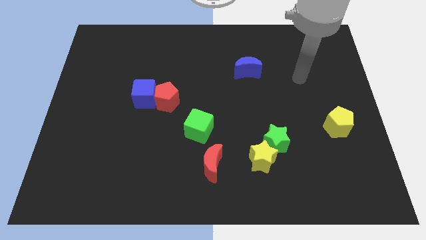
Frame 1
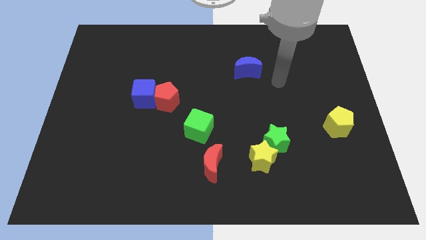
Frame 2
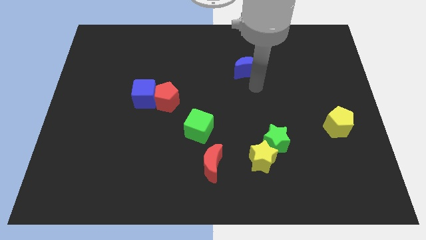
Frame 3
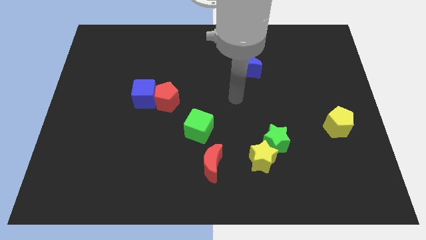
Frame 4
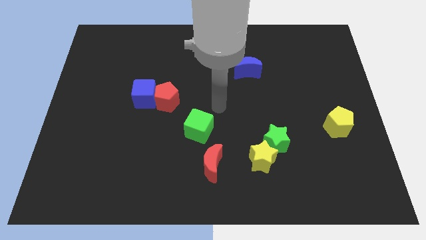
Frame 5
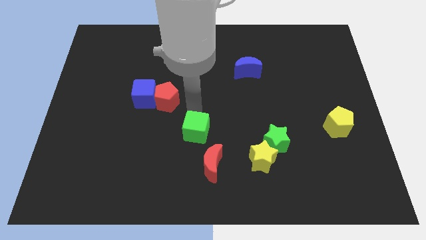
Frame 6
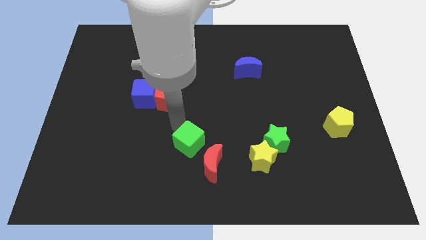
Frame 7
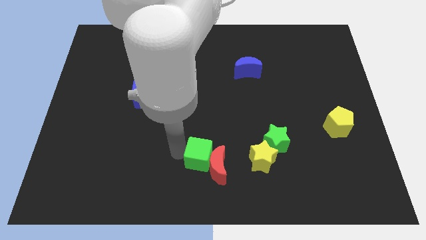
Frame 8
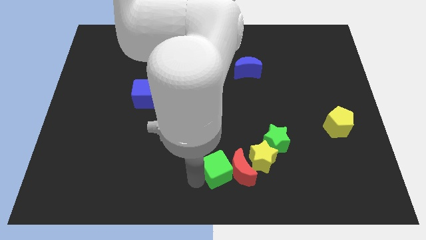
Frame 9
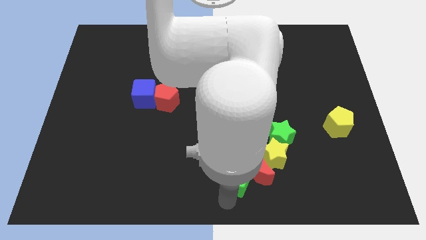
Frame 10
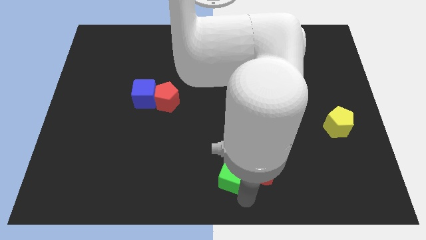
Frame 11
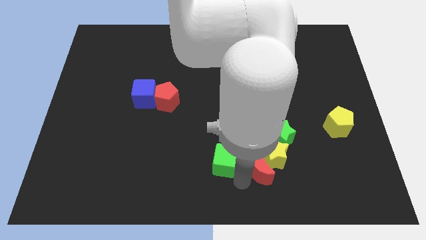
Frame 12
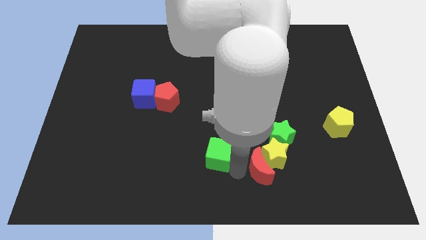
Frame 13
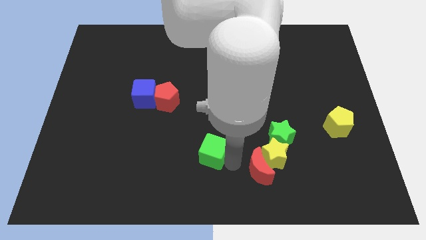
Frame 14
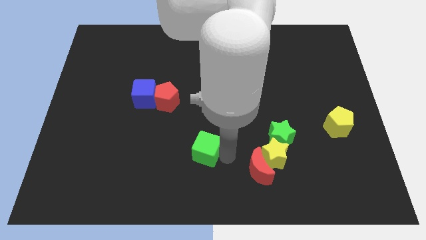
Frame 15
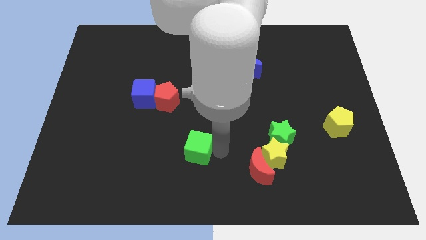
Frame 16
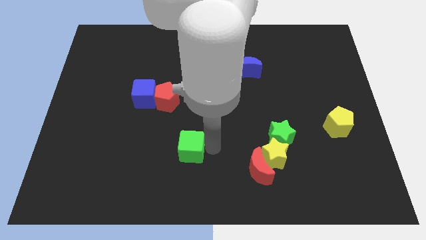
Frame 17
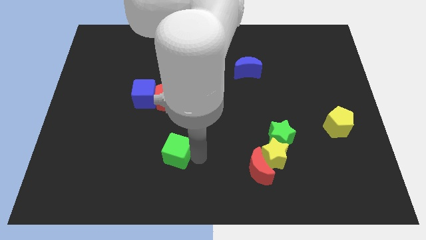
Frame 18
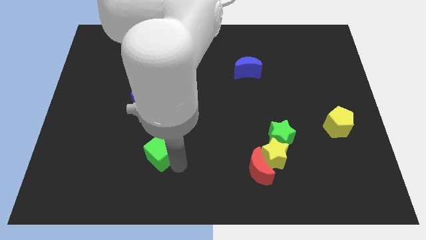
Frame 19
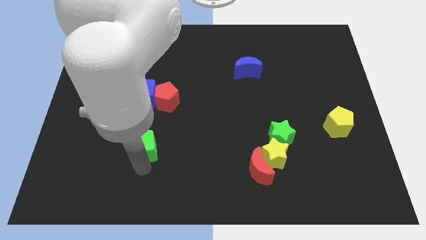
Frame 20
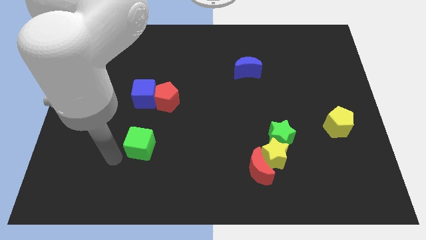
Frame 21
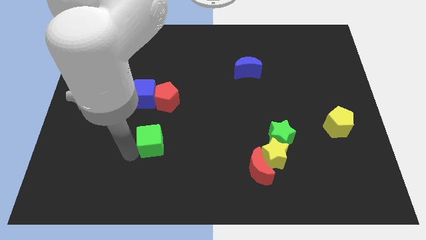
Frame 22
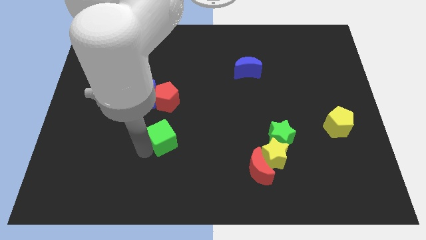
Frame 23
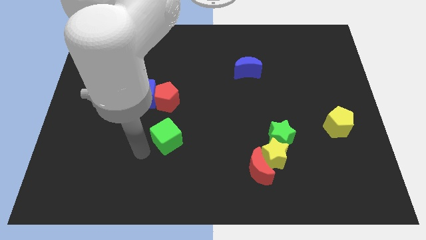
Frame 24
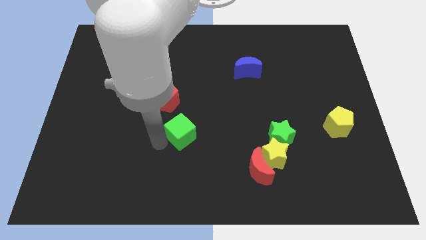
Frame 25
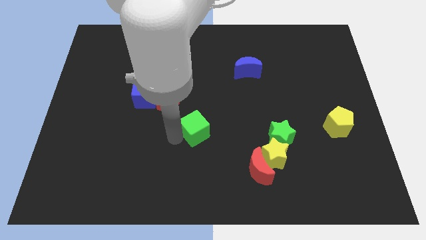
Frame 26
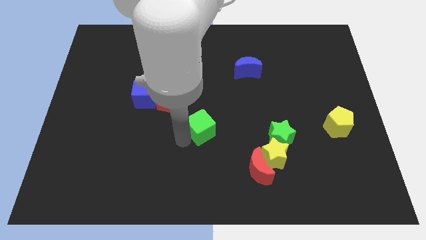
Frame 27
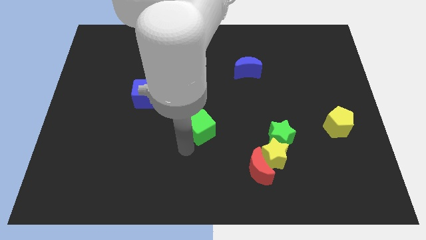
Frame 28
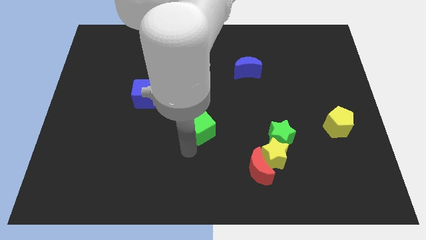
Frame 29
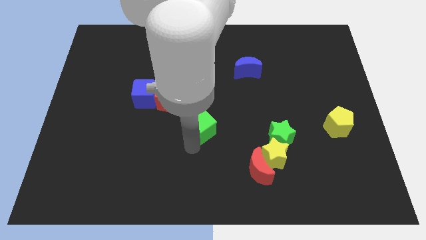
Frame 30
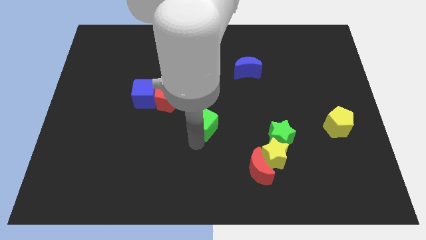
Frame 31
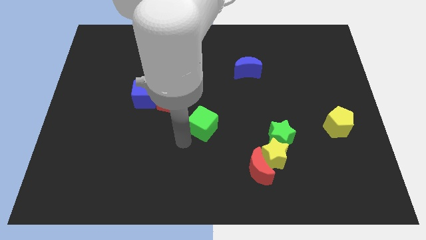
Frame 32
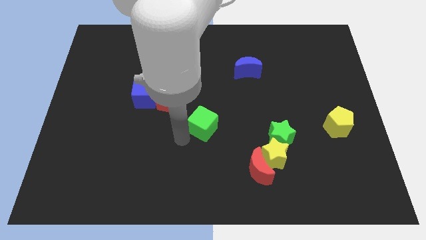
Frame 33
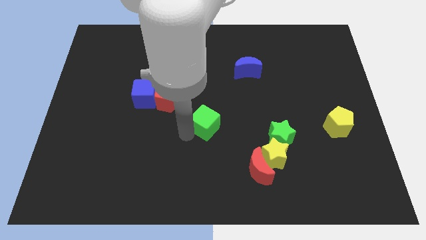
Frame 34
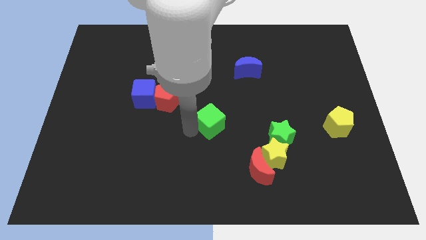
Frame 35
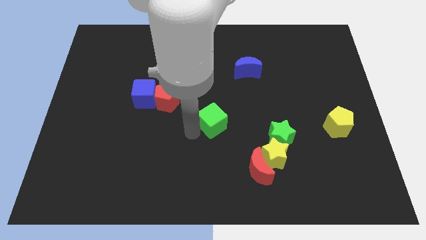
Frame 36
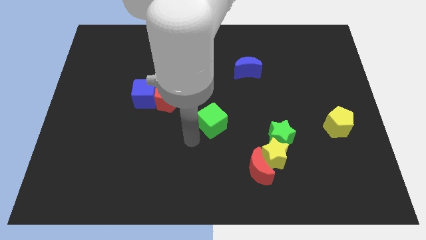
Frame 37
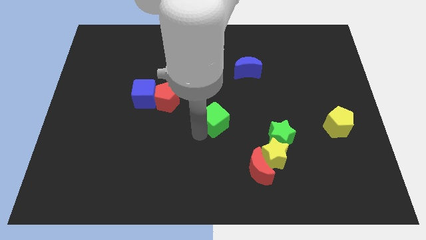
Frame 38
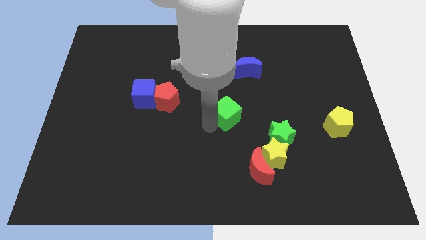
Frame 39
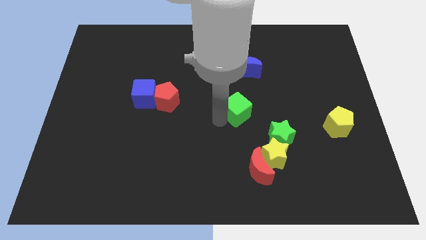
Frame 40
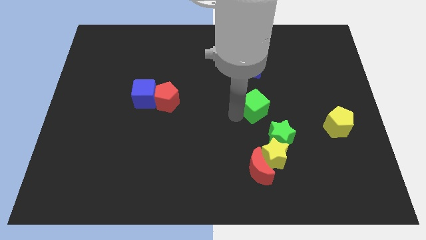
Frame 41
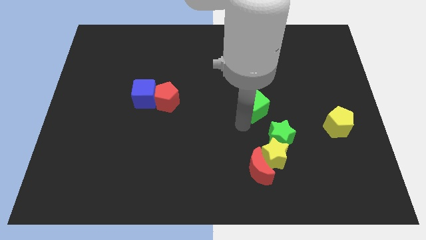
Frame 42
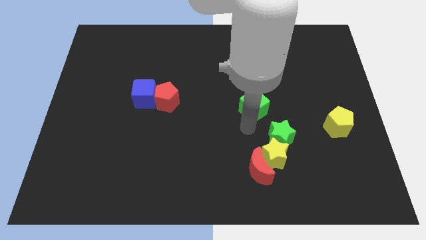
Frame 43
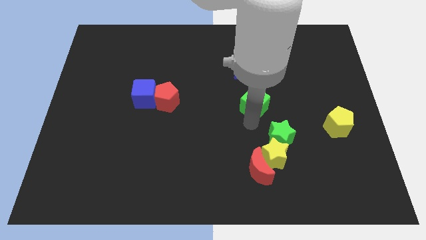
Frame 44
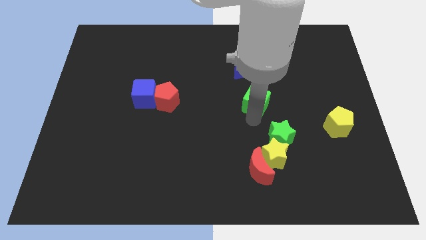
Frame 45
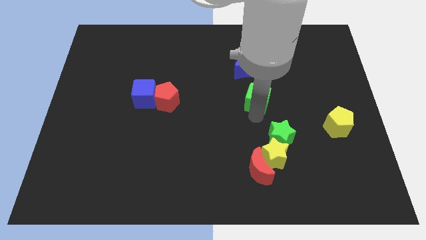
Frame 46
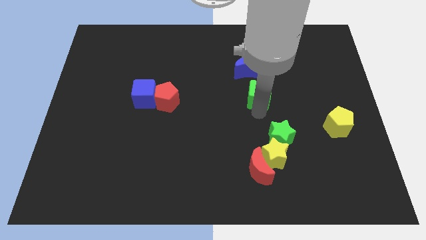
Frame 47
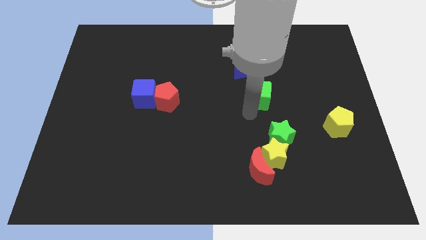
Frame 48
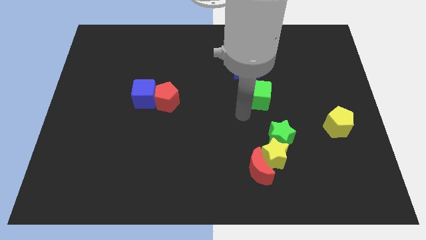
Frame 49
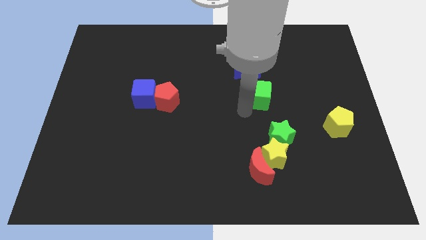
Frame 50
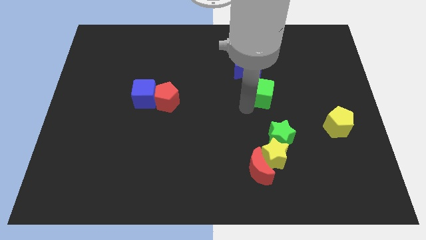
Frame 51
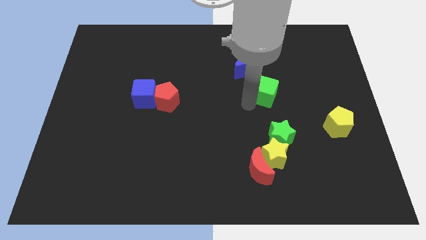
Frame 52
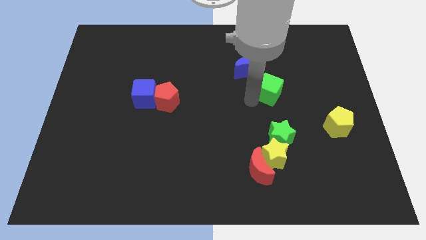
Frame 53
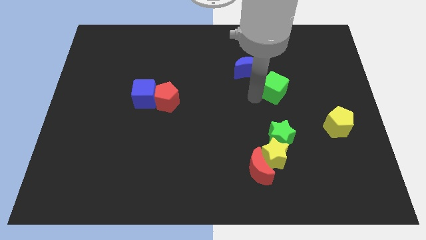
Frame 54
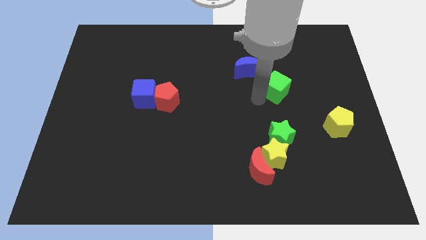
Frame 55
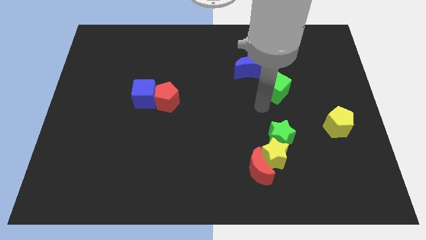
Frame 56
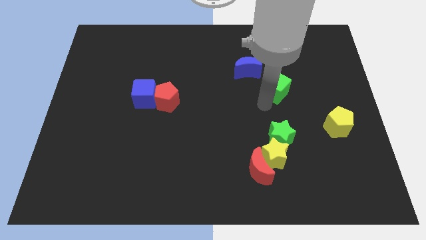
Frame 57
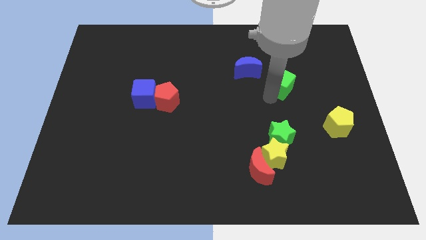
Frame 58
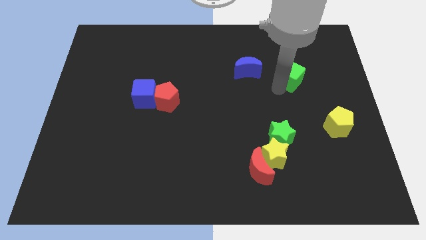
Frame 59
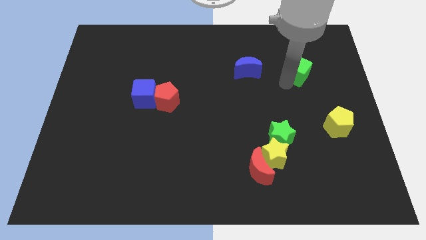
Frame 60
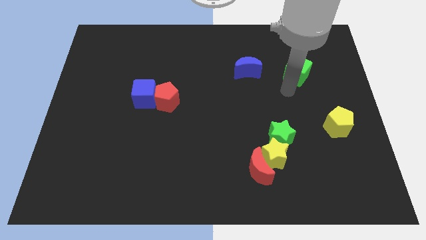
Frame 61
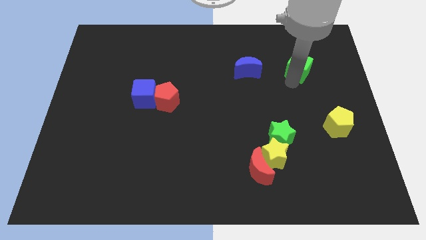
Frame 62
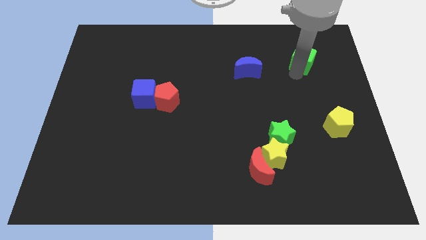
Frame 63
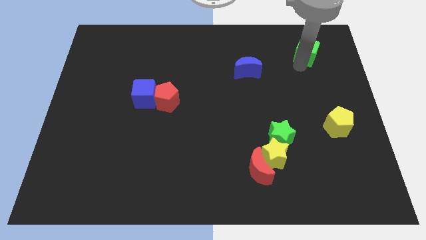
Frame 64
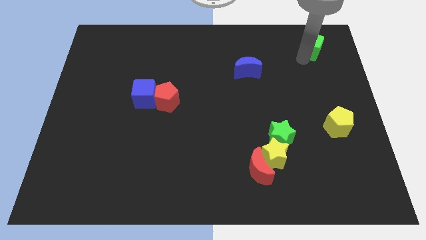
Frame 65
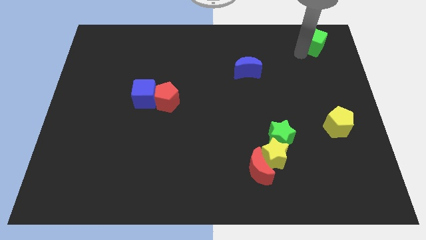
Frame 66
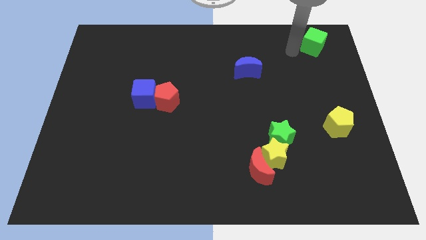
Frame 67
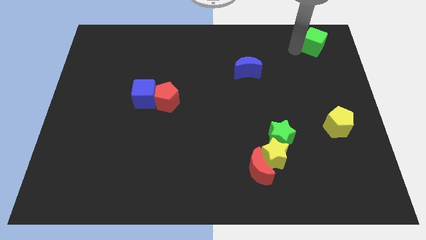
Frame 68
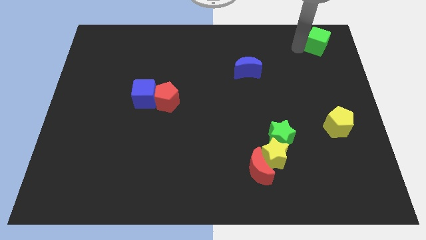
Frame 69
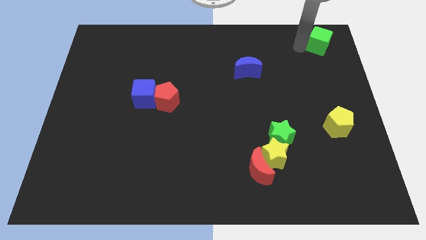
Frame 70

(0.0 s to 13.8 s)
slide the green cube to the top right

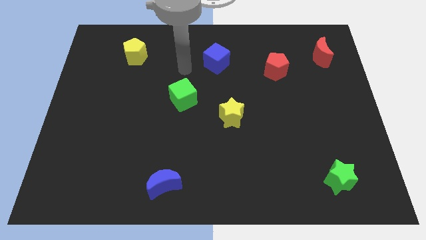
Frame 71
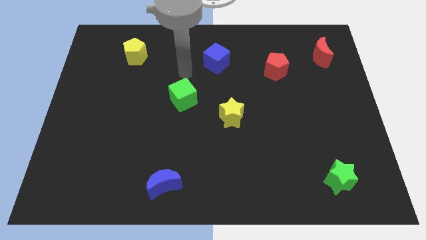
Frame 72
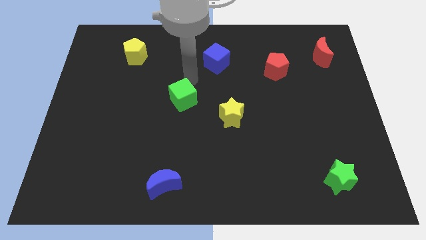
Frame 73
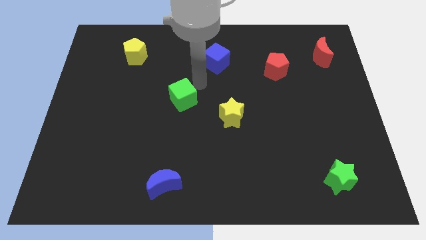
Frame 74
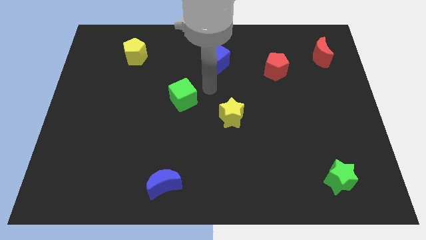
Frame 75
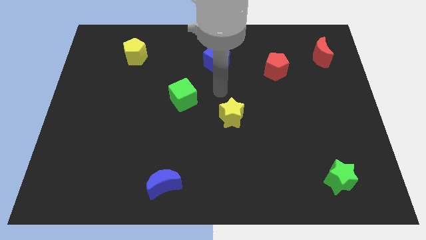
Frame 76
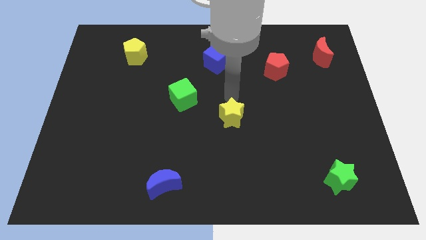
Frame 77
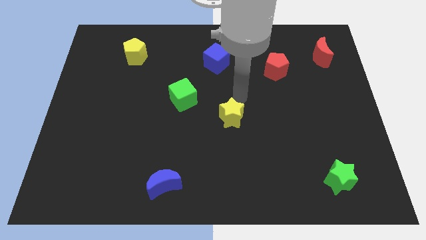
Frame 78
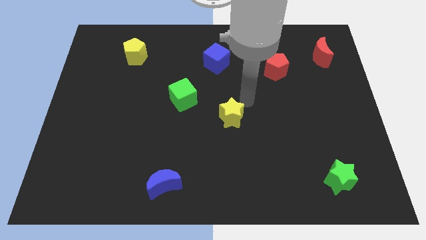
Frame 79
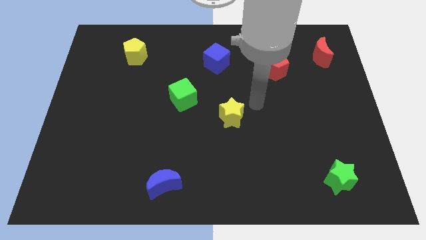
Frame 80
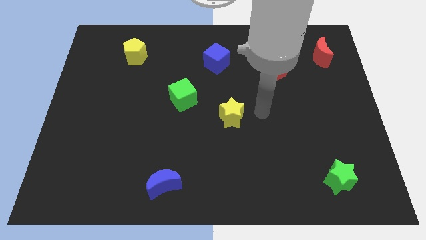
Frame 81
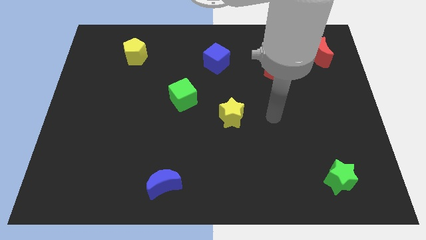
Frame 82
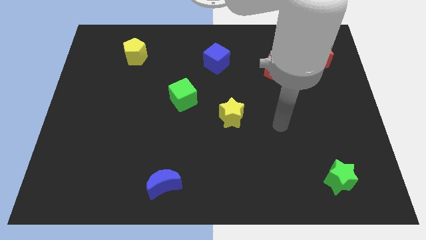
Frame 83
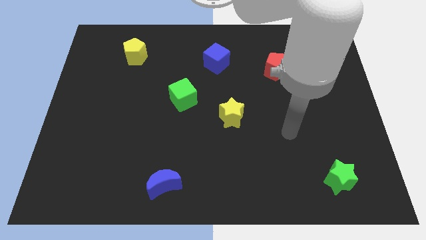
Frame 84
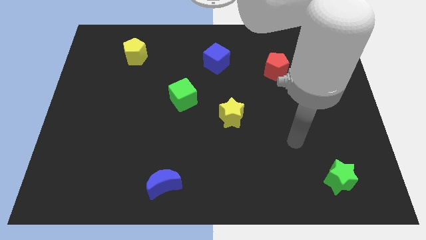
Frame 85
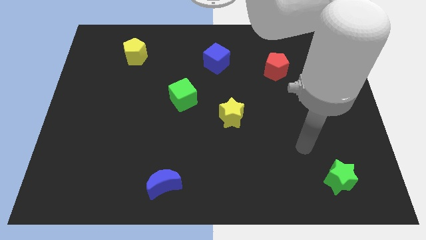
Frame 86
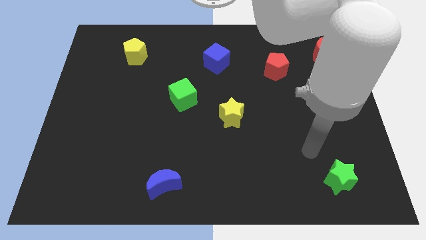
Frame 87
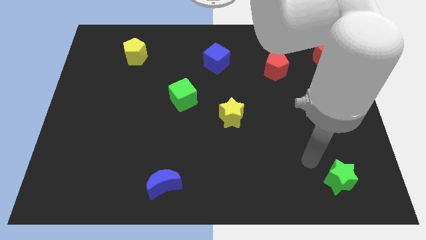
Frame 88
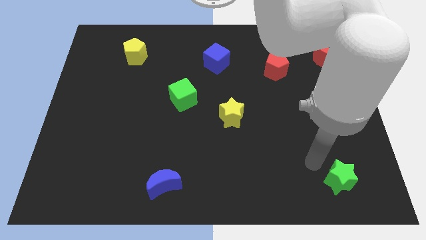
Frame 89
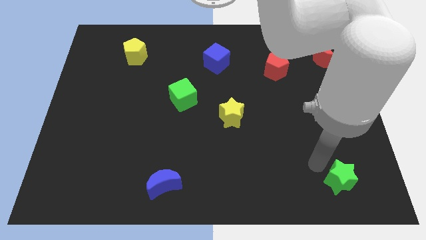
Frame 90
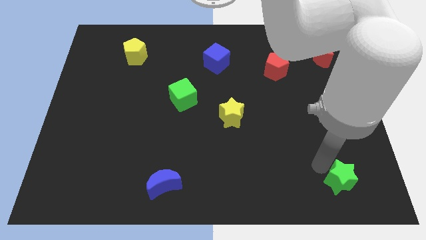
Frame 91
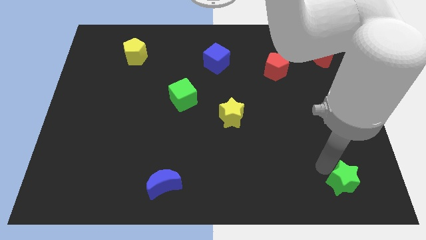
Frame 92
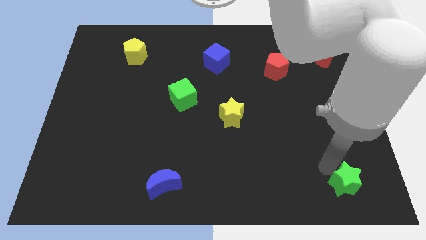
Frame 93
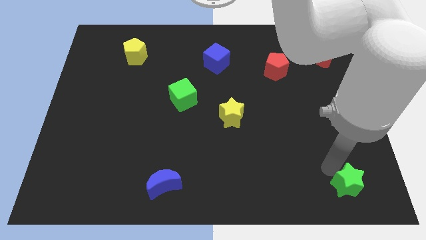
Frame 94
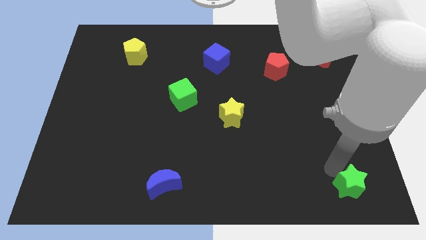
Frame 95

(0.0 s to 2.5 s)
move the green star to the lower right corner
